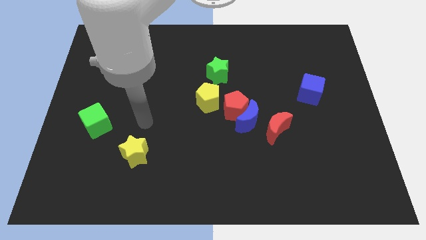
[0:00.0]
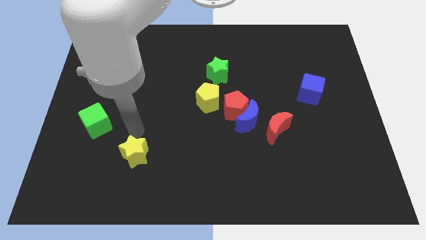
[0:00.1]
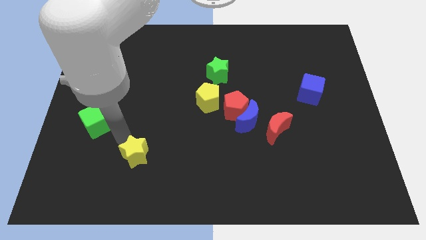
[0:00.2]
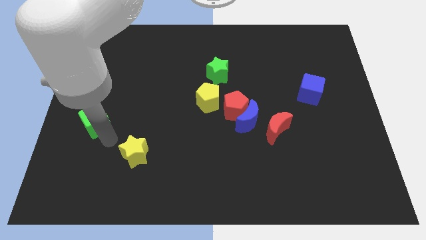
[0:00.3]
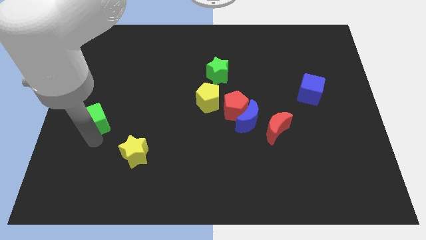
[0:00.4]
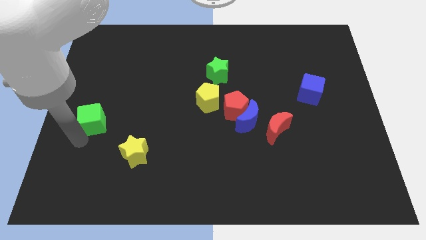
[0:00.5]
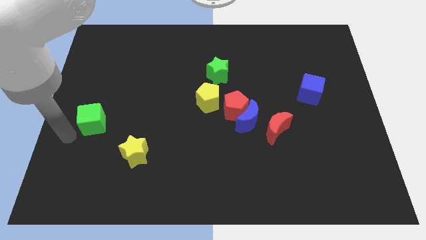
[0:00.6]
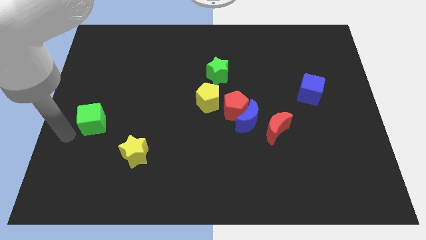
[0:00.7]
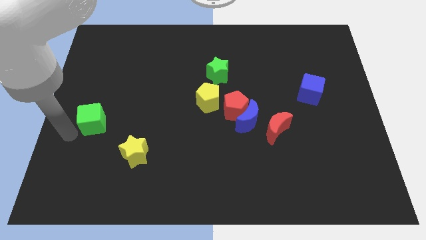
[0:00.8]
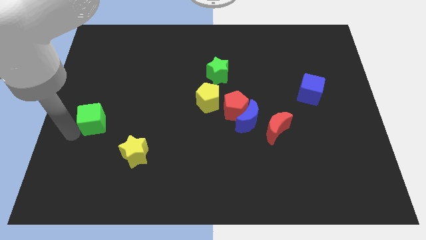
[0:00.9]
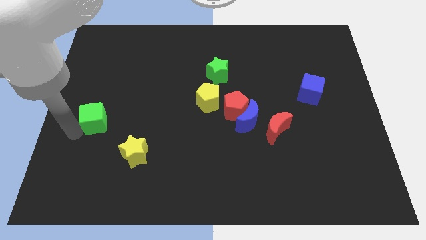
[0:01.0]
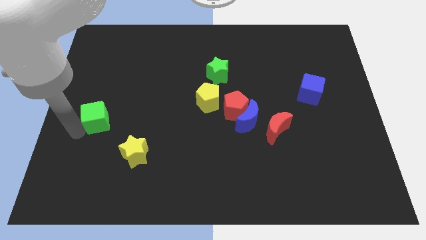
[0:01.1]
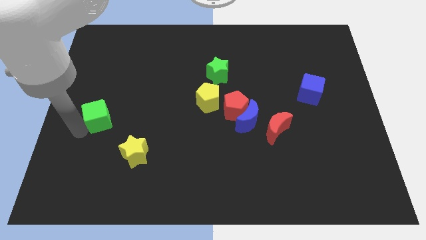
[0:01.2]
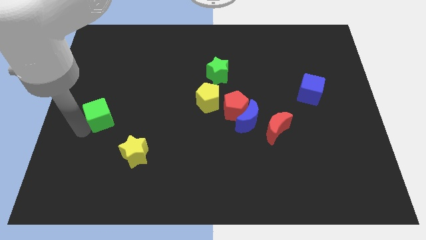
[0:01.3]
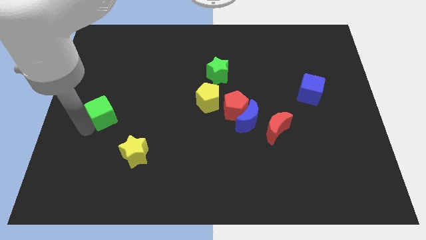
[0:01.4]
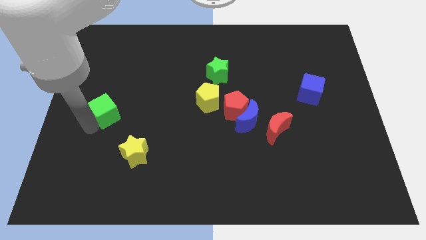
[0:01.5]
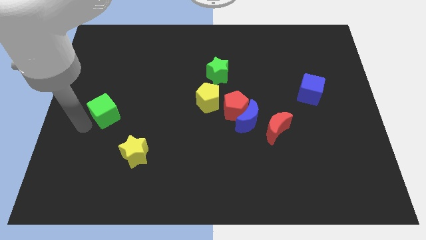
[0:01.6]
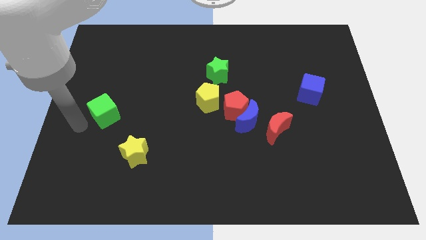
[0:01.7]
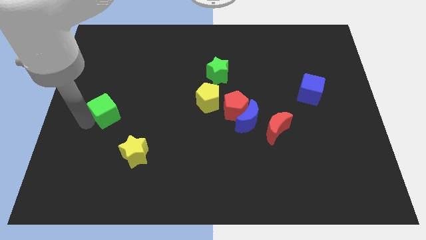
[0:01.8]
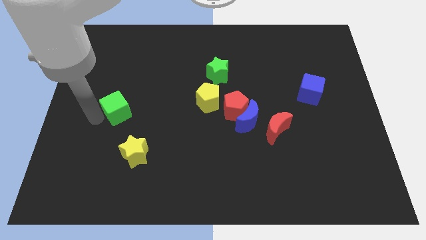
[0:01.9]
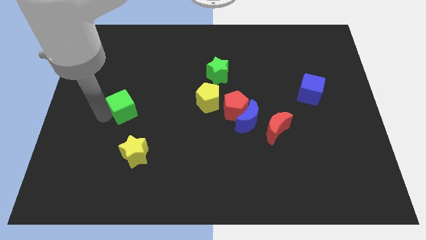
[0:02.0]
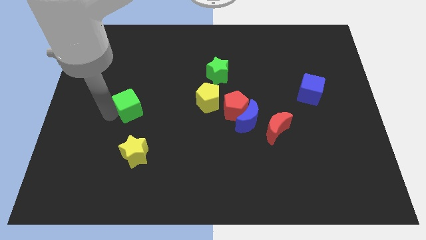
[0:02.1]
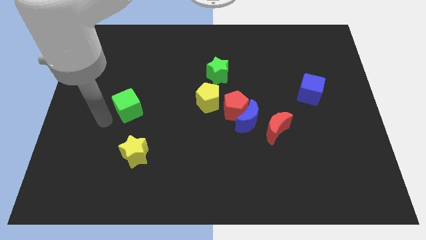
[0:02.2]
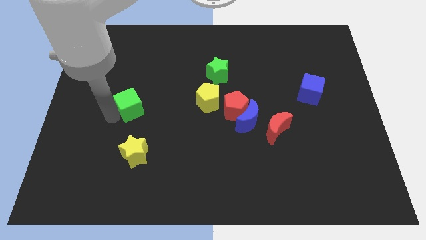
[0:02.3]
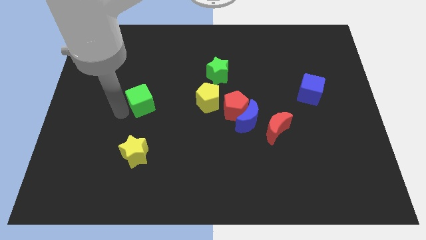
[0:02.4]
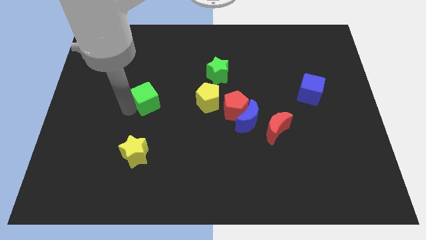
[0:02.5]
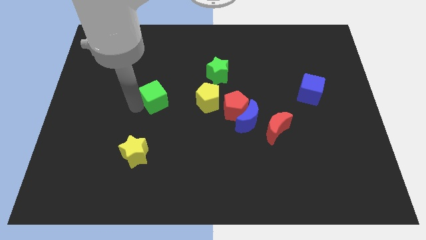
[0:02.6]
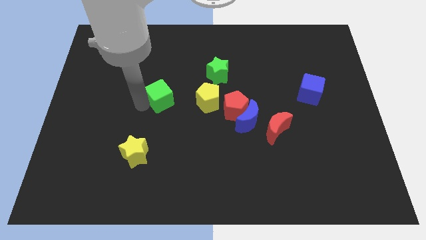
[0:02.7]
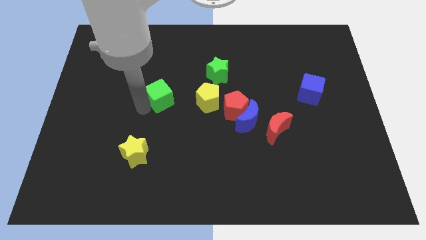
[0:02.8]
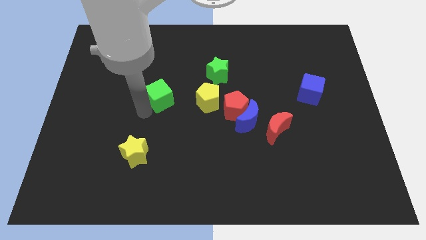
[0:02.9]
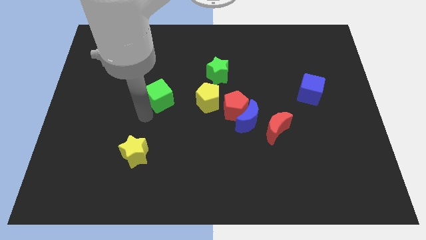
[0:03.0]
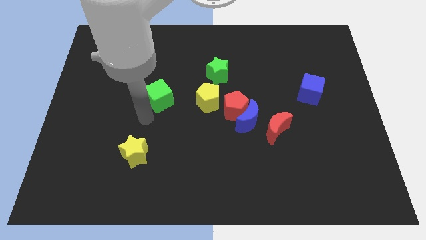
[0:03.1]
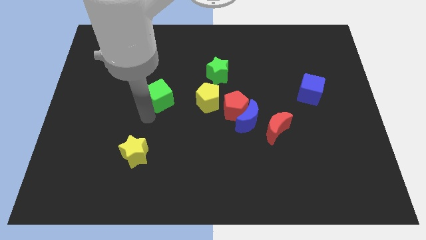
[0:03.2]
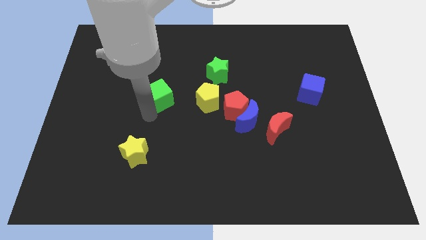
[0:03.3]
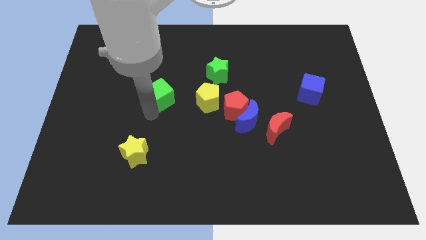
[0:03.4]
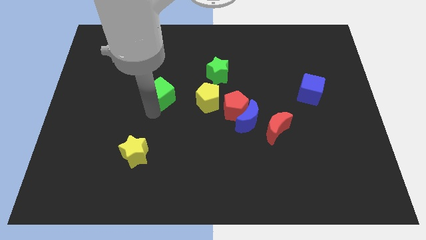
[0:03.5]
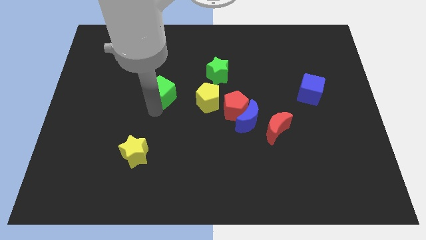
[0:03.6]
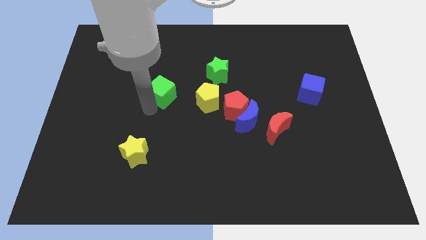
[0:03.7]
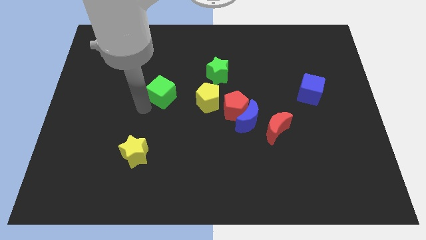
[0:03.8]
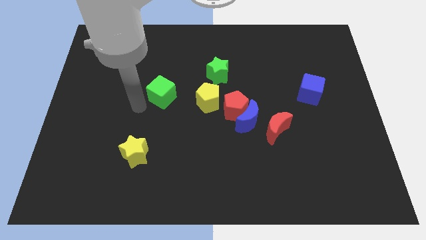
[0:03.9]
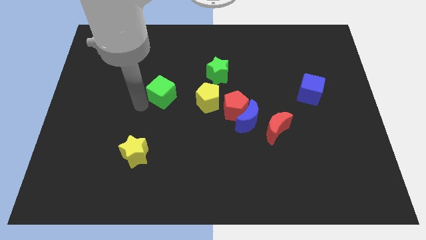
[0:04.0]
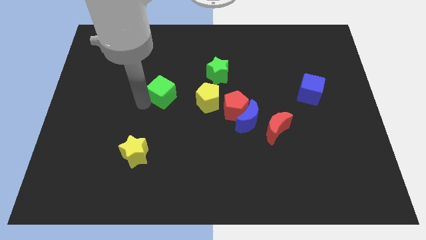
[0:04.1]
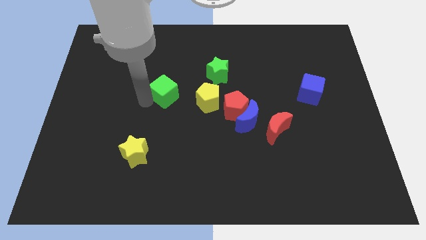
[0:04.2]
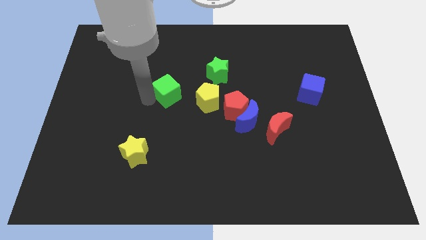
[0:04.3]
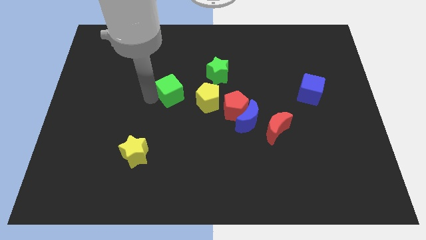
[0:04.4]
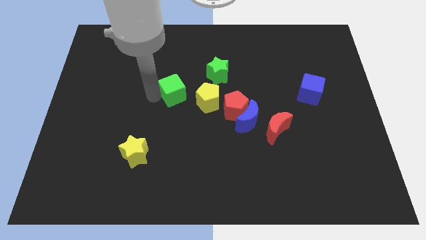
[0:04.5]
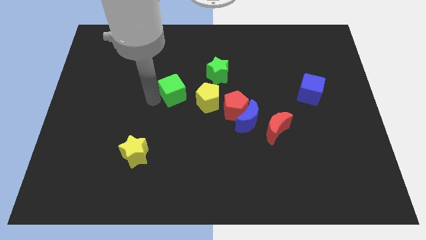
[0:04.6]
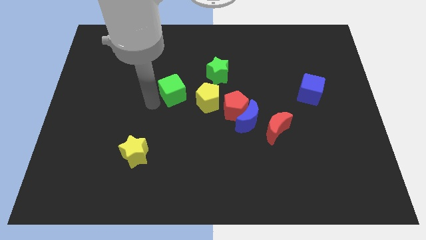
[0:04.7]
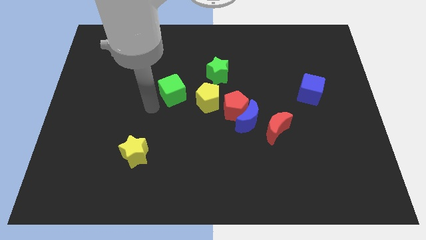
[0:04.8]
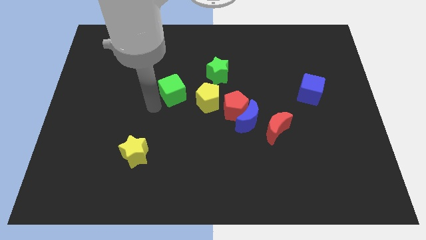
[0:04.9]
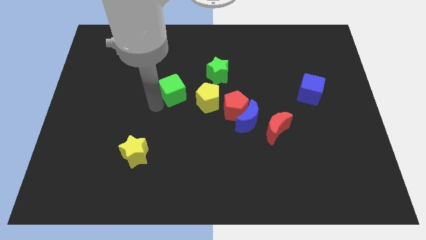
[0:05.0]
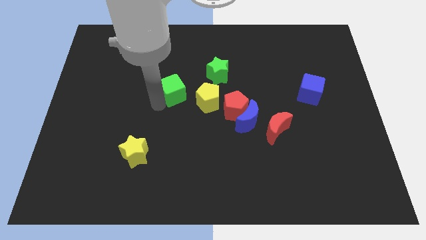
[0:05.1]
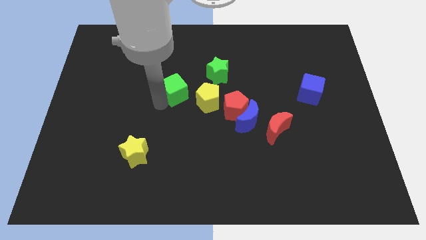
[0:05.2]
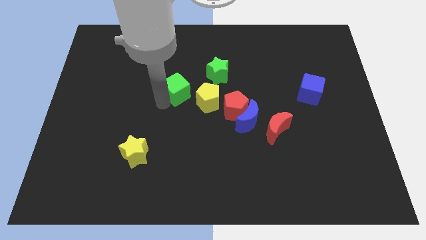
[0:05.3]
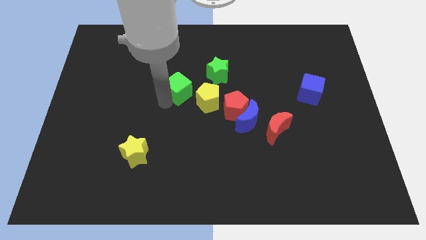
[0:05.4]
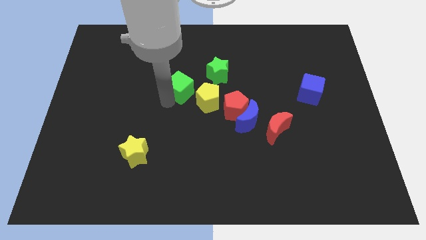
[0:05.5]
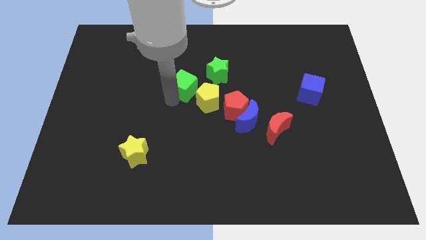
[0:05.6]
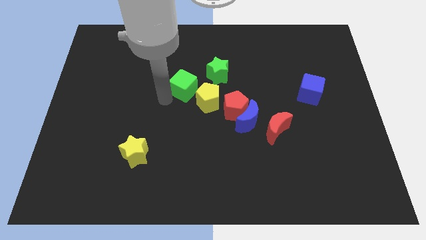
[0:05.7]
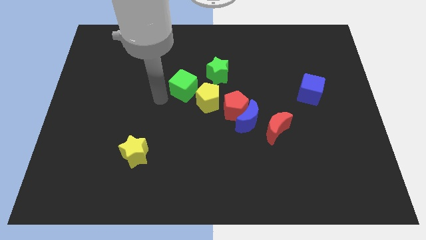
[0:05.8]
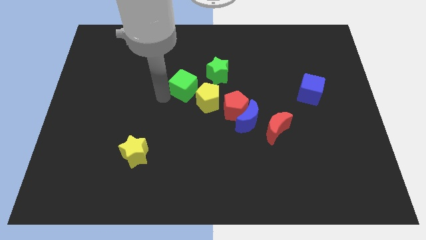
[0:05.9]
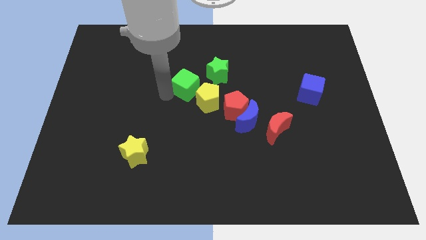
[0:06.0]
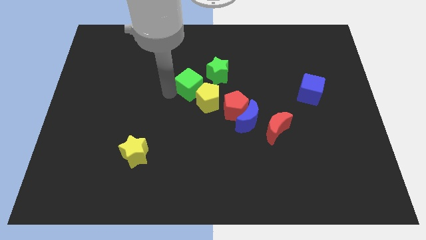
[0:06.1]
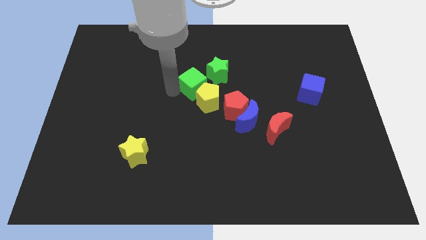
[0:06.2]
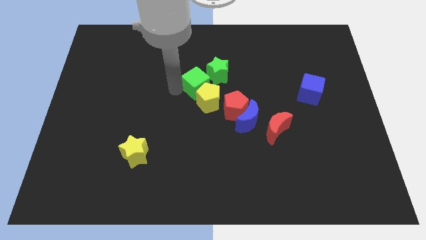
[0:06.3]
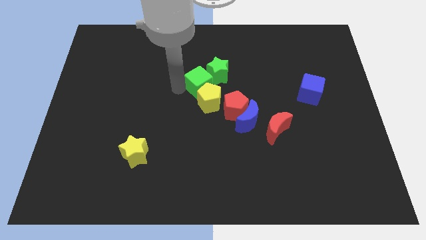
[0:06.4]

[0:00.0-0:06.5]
slide the green cube to the green star
